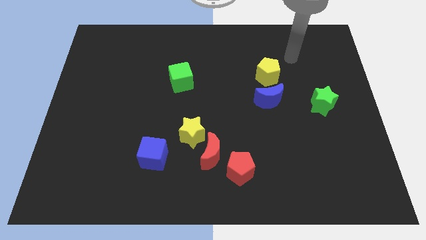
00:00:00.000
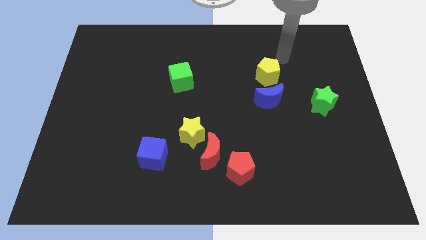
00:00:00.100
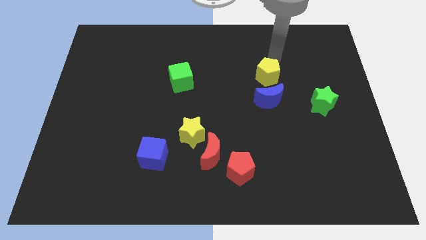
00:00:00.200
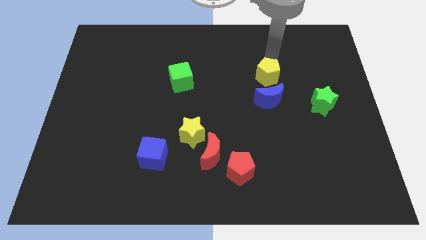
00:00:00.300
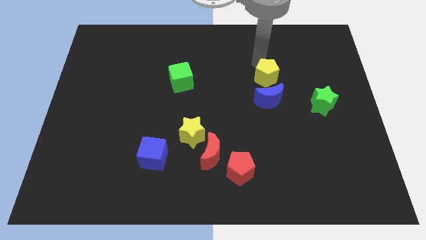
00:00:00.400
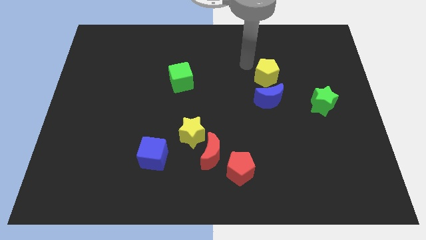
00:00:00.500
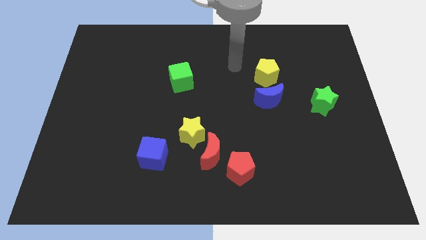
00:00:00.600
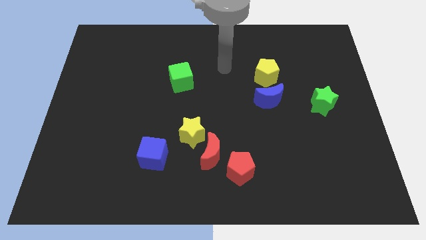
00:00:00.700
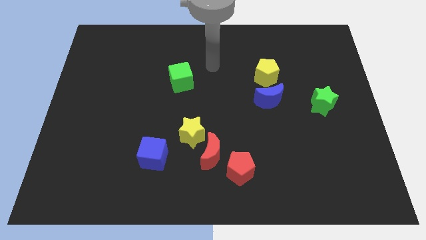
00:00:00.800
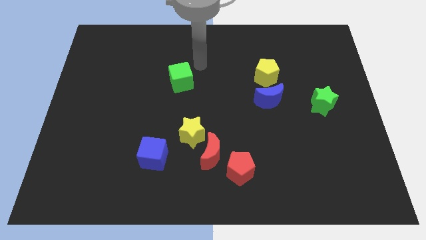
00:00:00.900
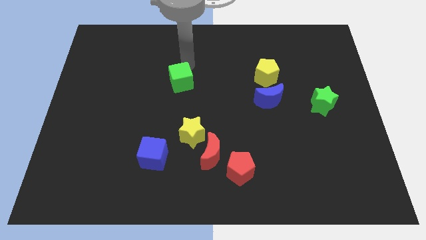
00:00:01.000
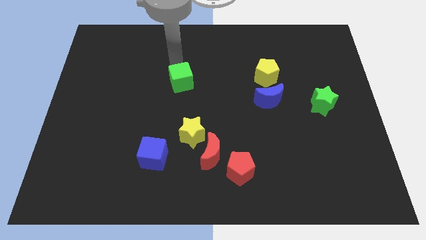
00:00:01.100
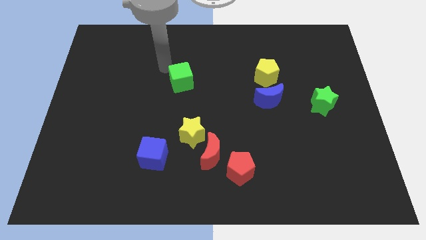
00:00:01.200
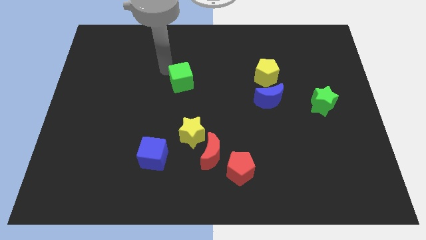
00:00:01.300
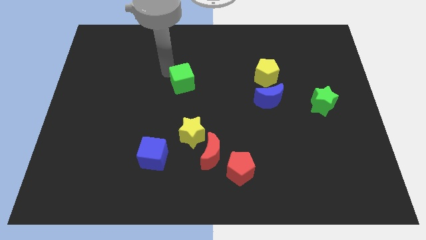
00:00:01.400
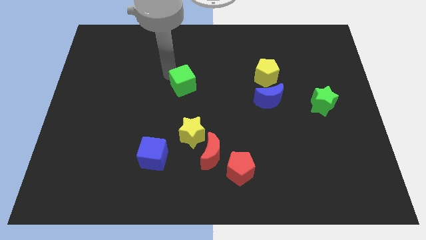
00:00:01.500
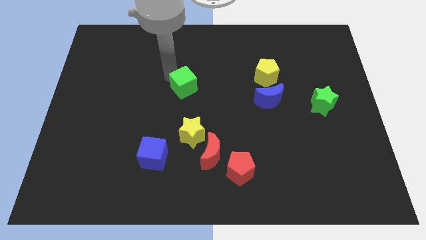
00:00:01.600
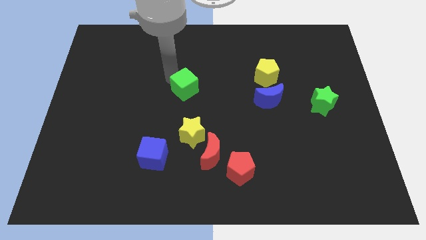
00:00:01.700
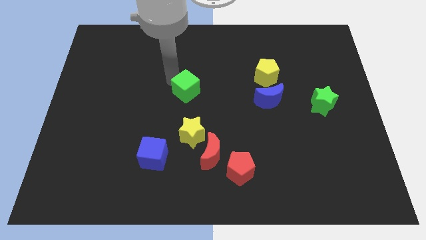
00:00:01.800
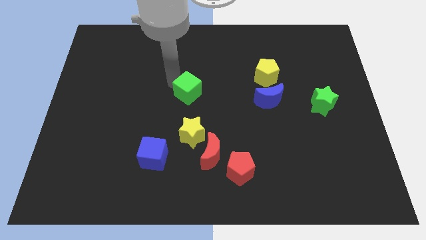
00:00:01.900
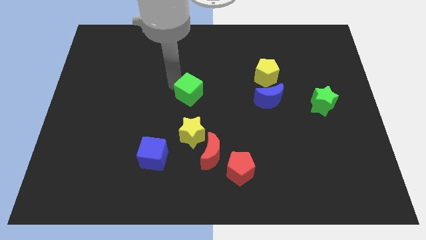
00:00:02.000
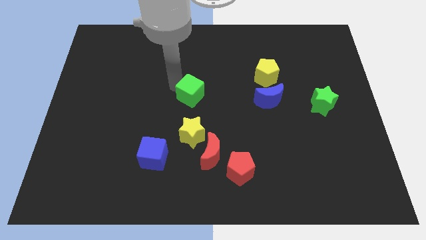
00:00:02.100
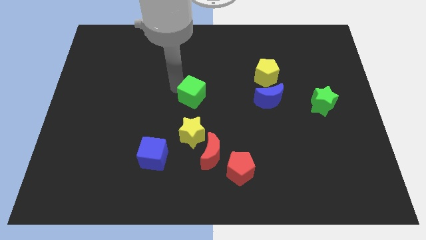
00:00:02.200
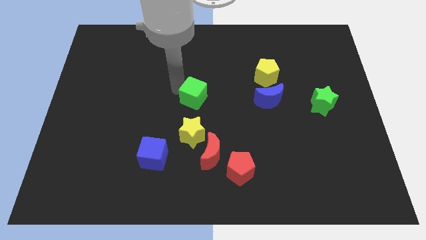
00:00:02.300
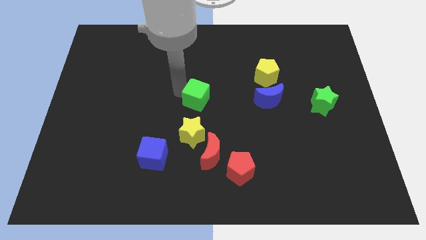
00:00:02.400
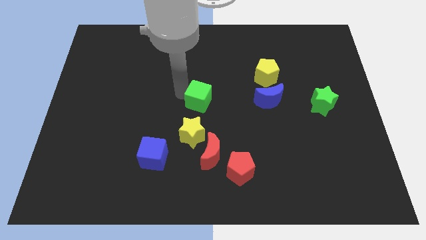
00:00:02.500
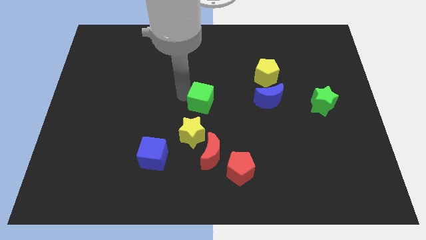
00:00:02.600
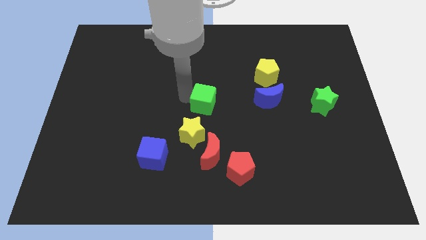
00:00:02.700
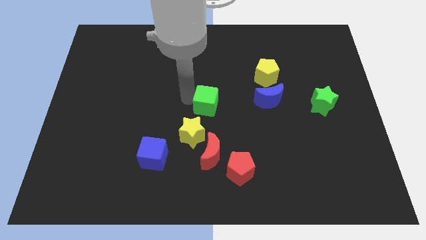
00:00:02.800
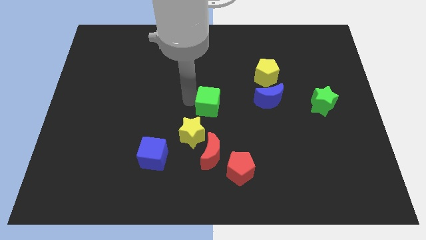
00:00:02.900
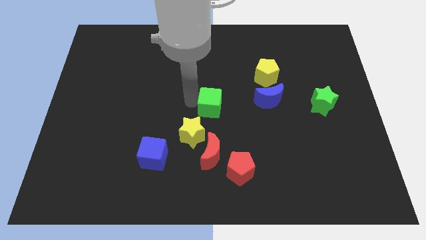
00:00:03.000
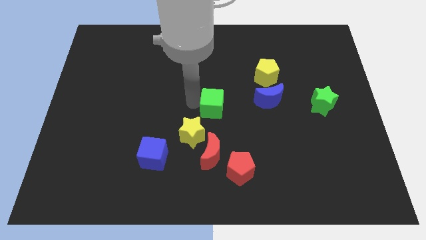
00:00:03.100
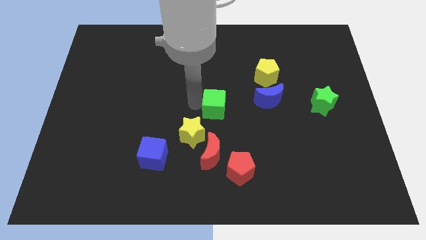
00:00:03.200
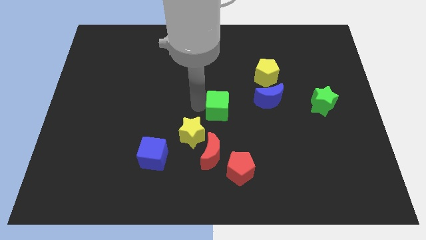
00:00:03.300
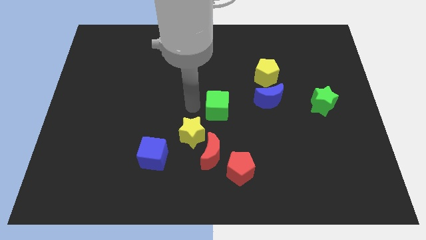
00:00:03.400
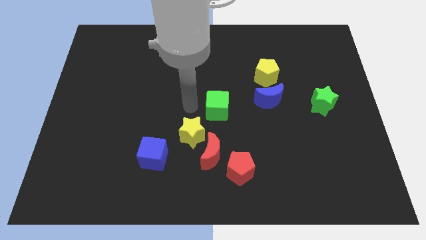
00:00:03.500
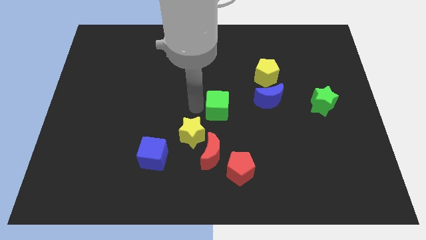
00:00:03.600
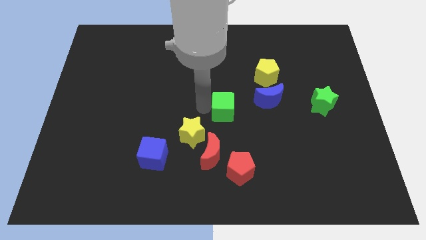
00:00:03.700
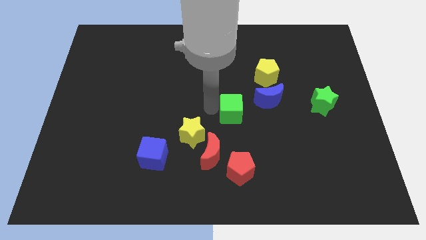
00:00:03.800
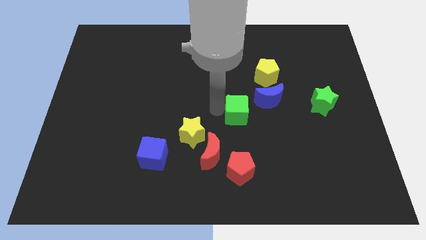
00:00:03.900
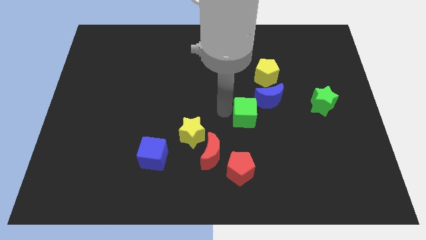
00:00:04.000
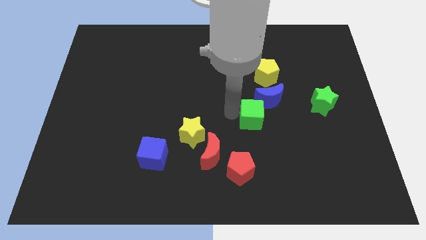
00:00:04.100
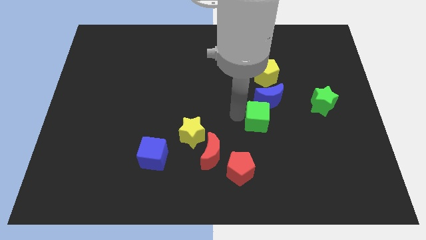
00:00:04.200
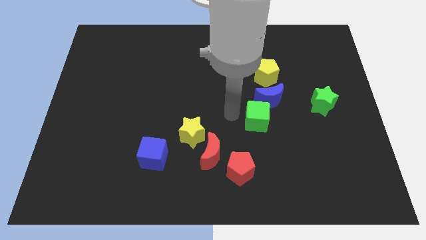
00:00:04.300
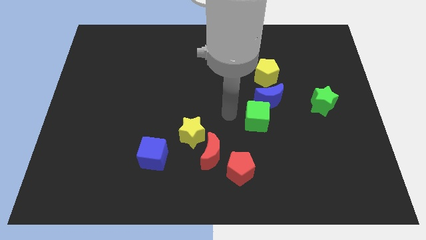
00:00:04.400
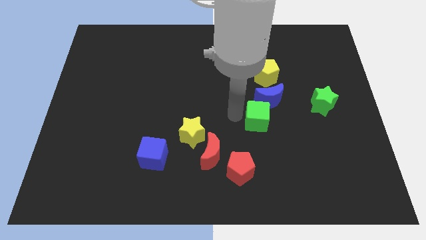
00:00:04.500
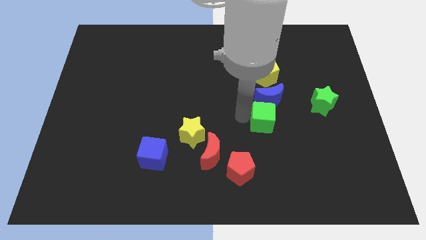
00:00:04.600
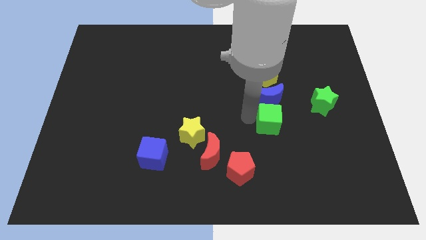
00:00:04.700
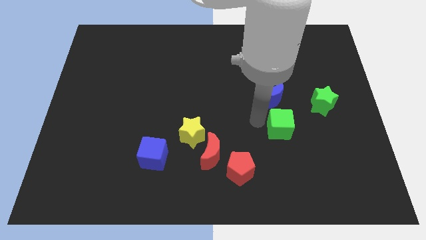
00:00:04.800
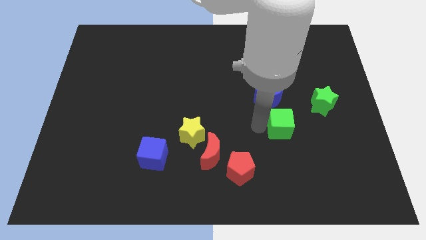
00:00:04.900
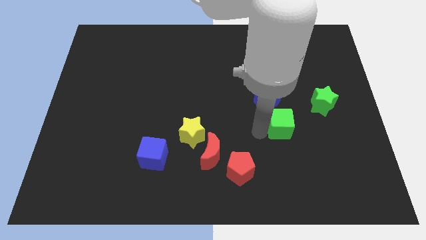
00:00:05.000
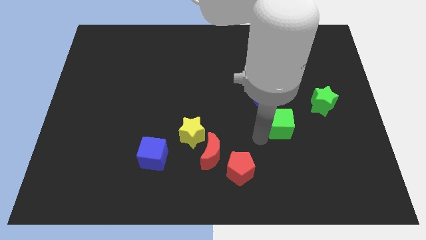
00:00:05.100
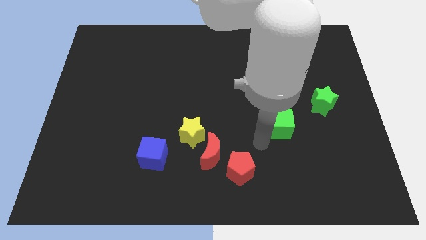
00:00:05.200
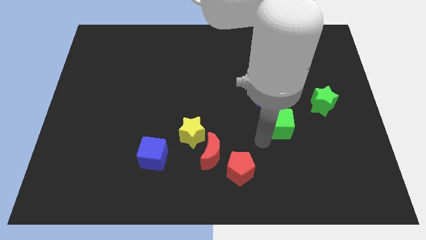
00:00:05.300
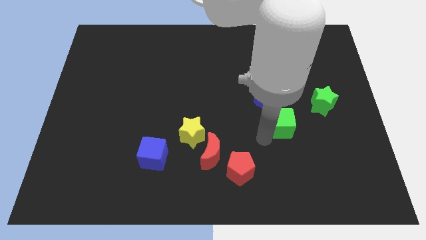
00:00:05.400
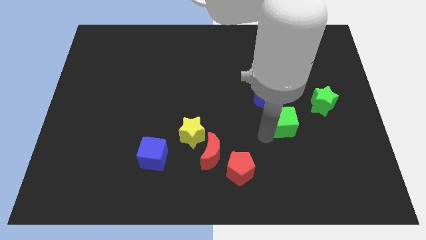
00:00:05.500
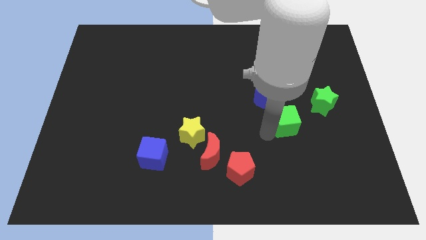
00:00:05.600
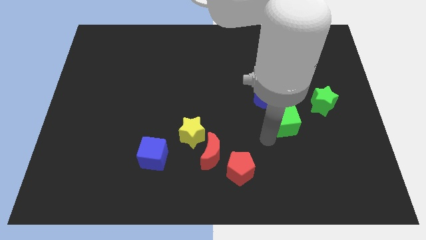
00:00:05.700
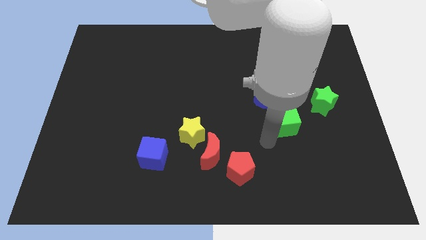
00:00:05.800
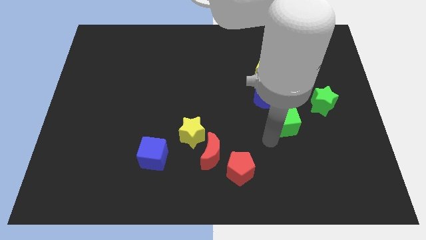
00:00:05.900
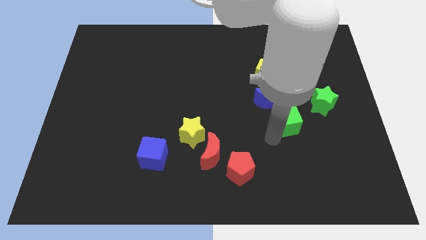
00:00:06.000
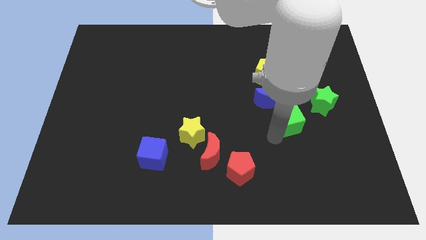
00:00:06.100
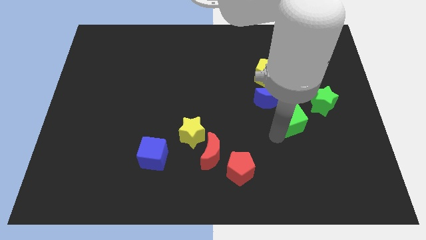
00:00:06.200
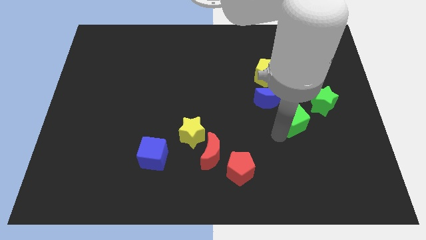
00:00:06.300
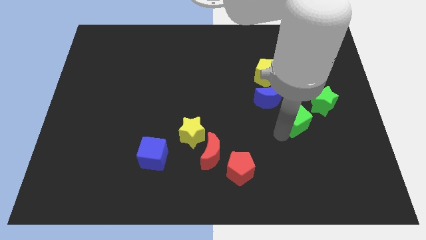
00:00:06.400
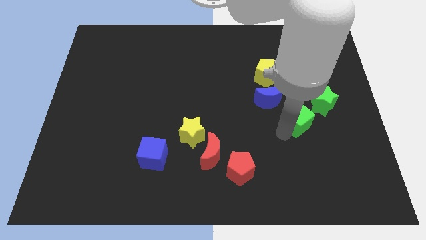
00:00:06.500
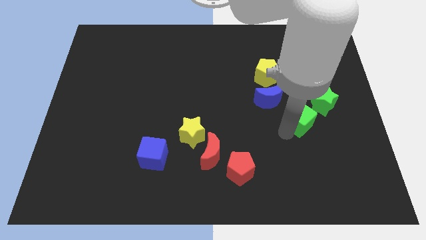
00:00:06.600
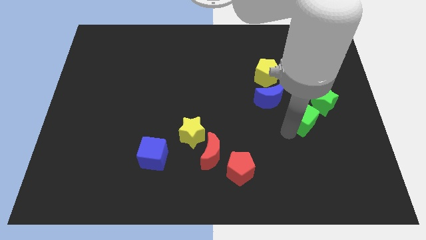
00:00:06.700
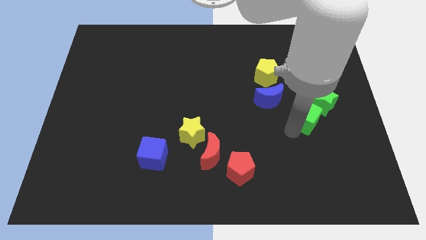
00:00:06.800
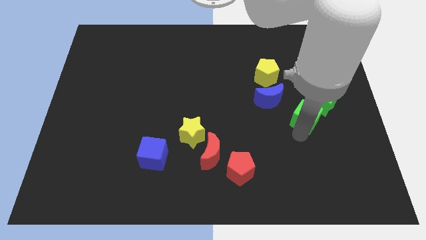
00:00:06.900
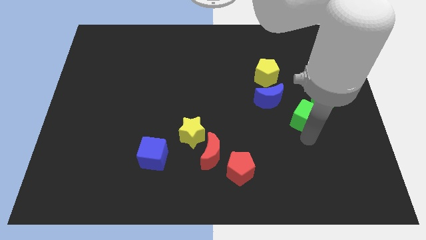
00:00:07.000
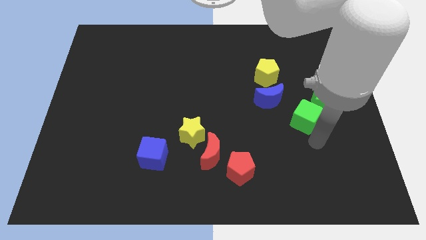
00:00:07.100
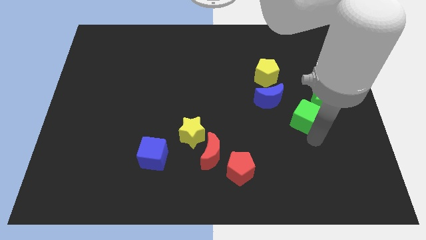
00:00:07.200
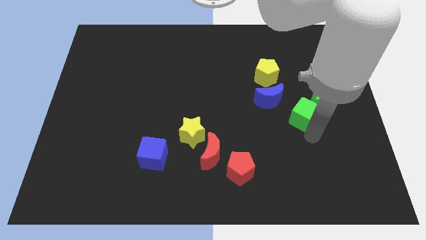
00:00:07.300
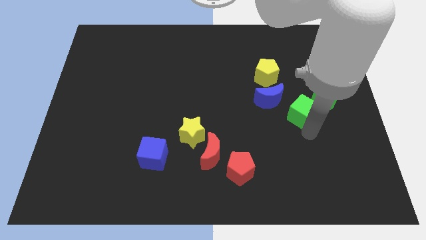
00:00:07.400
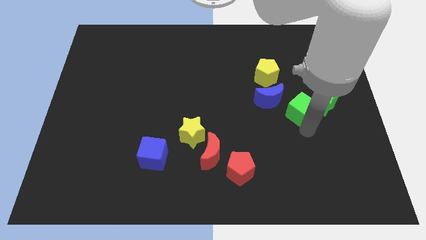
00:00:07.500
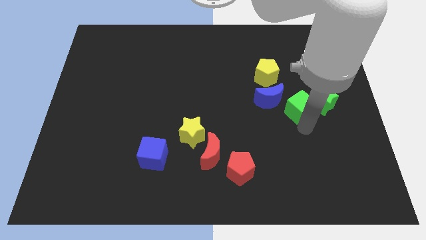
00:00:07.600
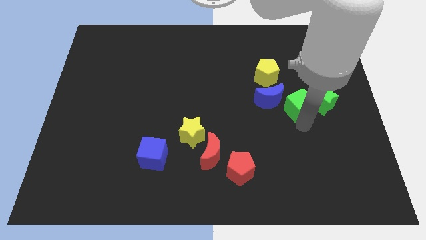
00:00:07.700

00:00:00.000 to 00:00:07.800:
push the green cube diagonally down and to the right of the yellow pentagon
